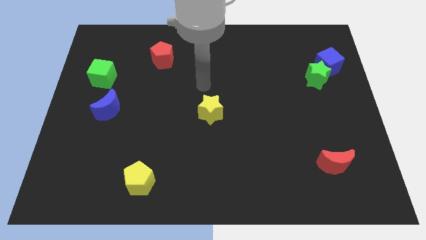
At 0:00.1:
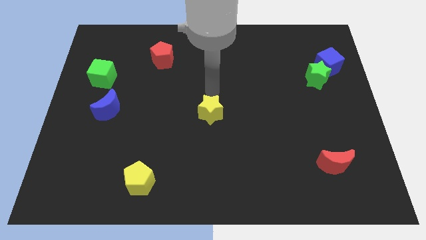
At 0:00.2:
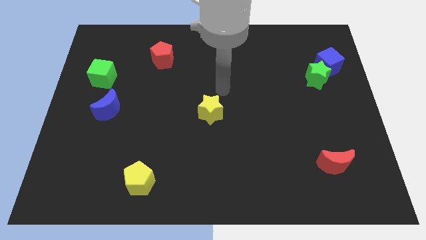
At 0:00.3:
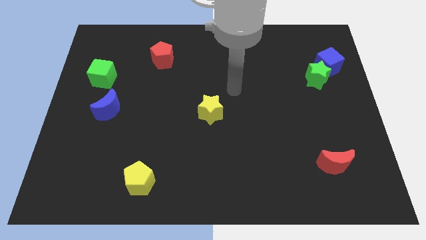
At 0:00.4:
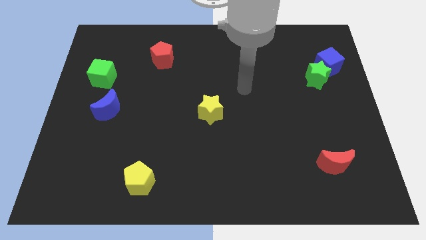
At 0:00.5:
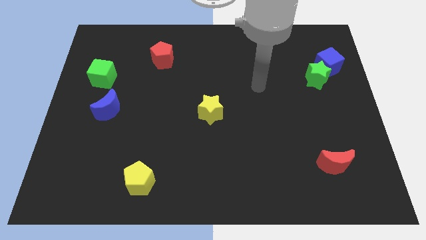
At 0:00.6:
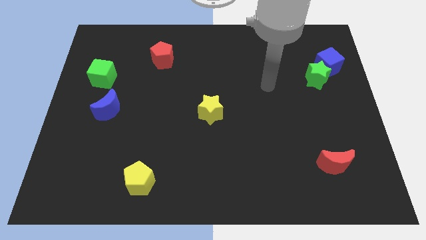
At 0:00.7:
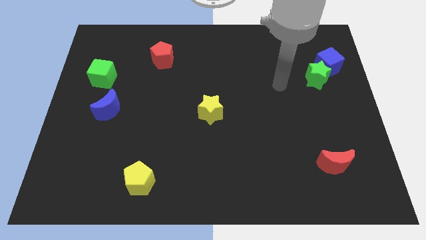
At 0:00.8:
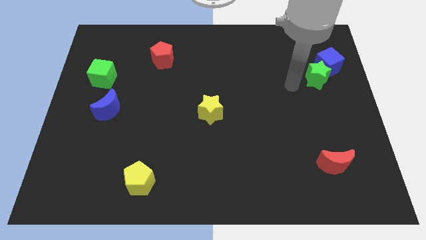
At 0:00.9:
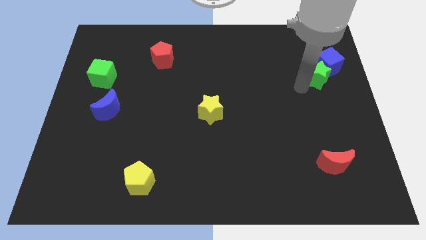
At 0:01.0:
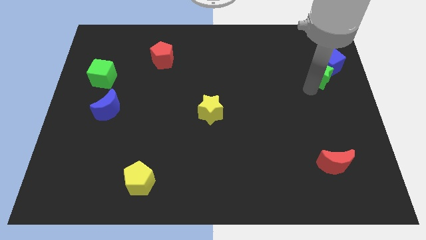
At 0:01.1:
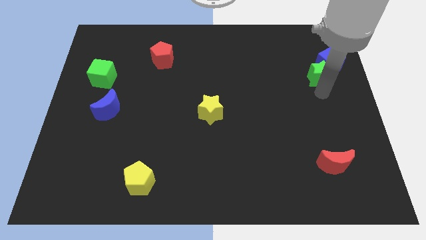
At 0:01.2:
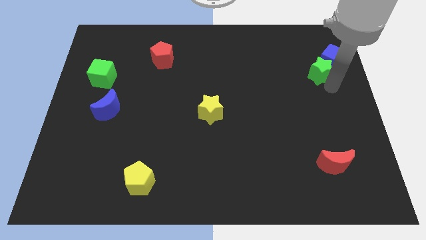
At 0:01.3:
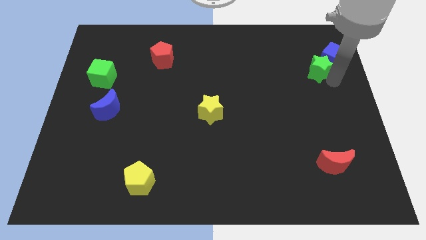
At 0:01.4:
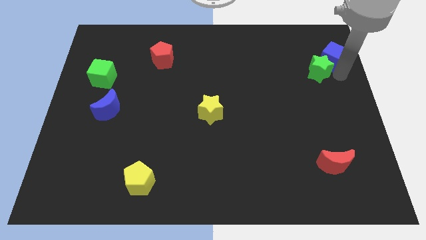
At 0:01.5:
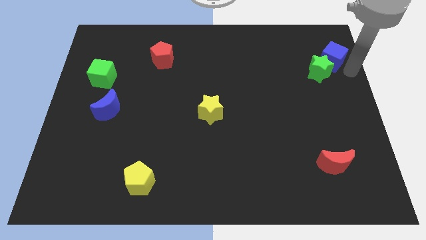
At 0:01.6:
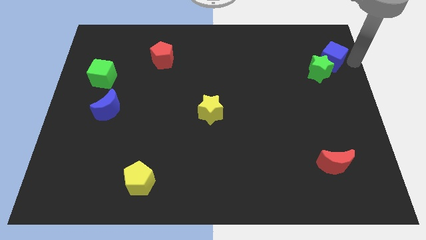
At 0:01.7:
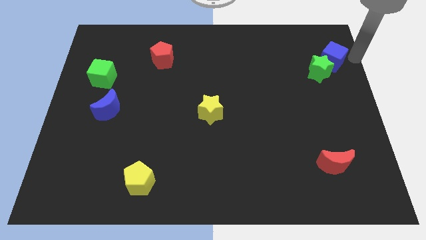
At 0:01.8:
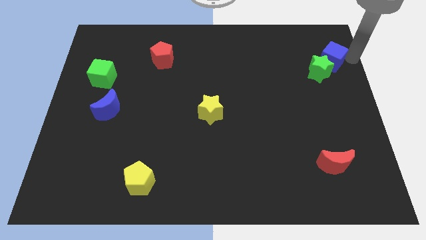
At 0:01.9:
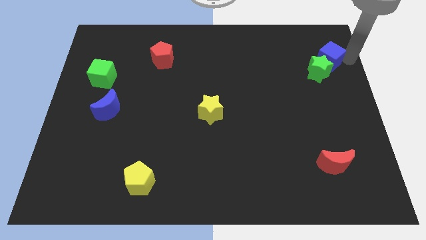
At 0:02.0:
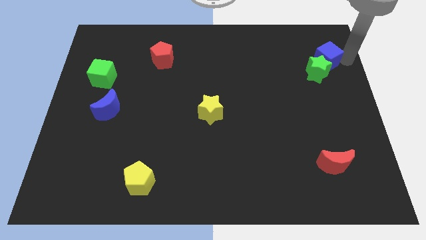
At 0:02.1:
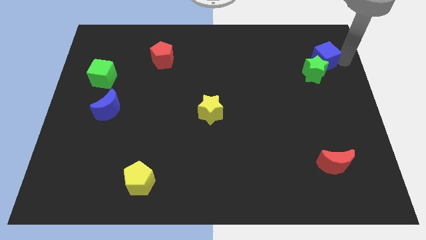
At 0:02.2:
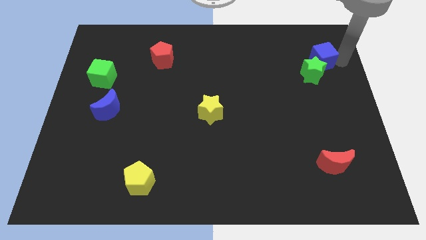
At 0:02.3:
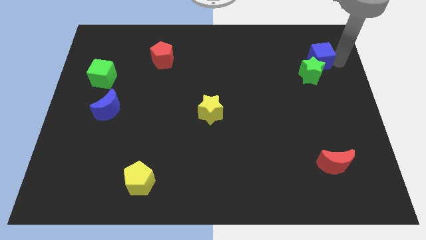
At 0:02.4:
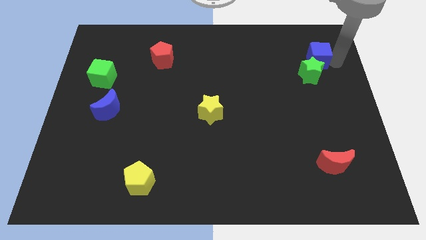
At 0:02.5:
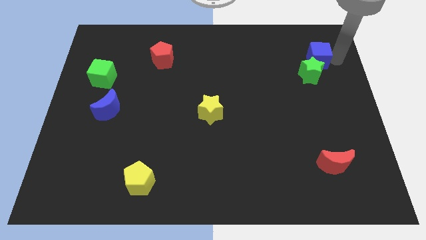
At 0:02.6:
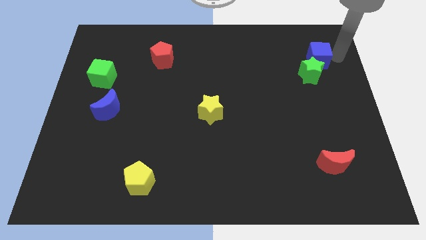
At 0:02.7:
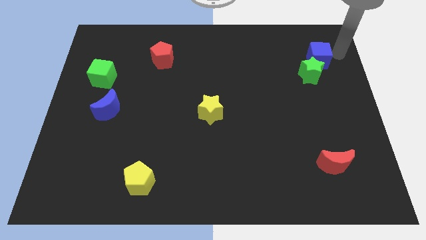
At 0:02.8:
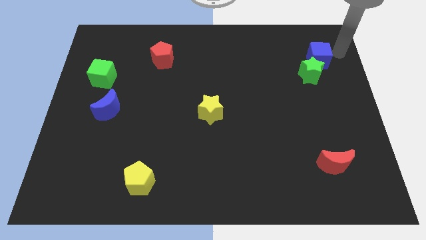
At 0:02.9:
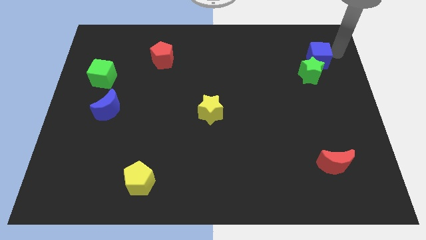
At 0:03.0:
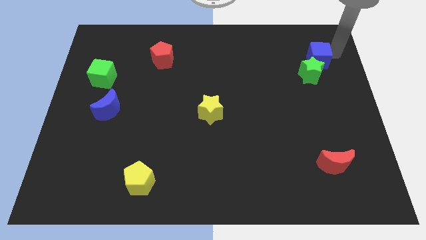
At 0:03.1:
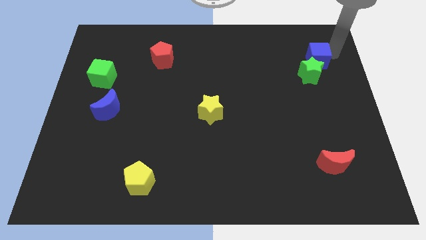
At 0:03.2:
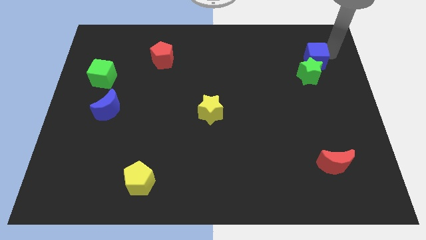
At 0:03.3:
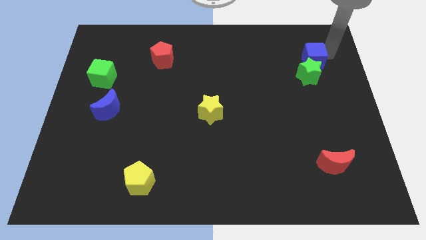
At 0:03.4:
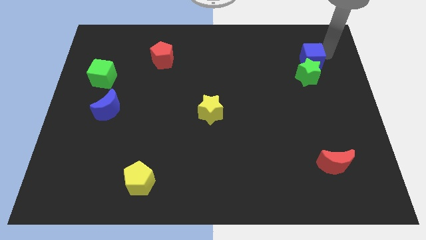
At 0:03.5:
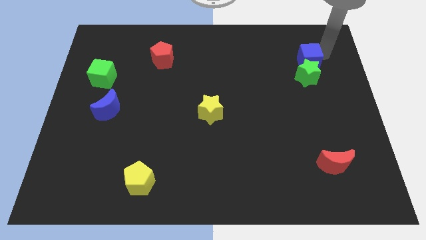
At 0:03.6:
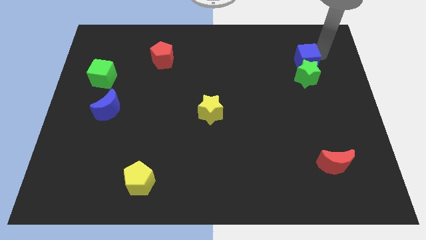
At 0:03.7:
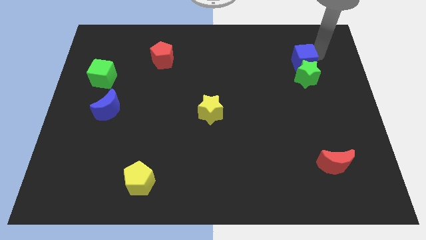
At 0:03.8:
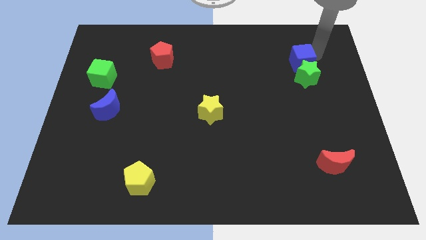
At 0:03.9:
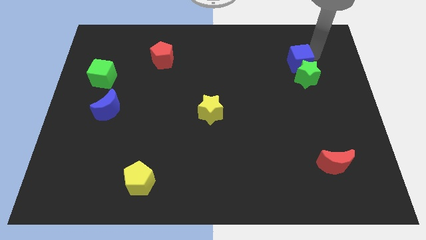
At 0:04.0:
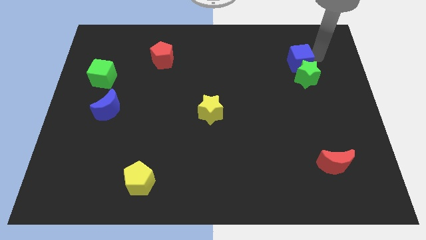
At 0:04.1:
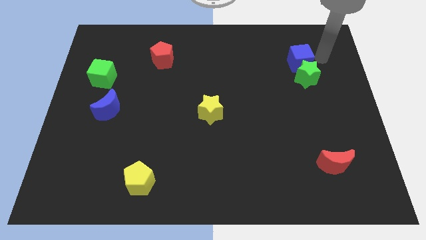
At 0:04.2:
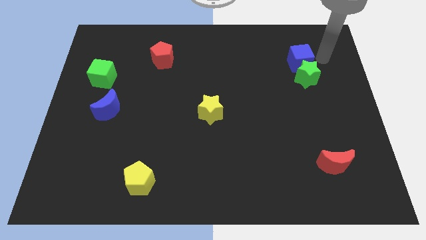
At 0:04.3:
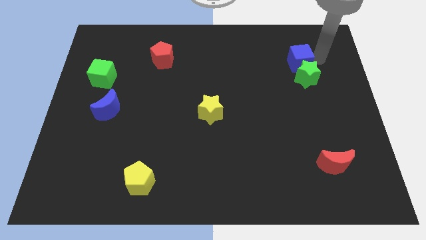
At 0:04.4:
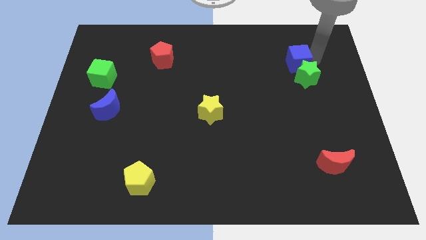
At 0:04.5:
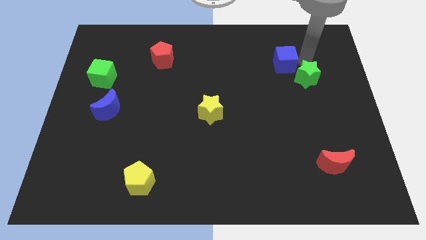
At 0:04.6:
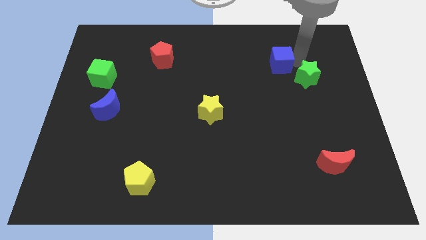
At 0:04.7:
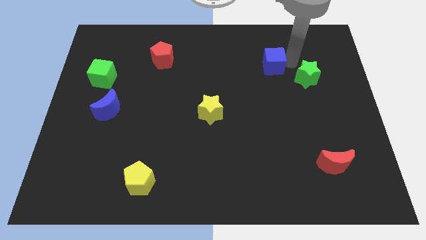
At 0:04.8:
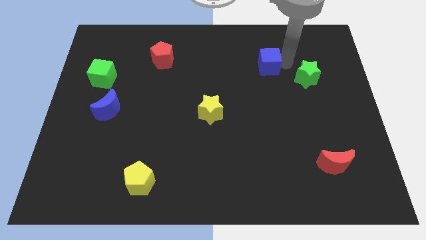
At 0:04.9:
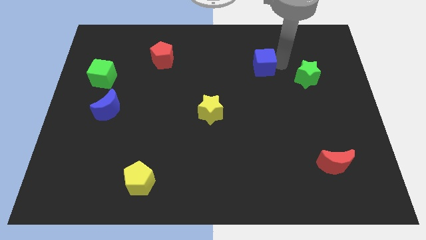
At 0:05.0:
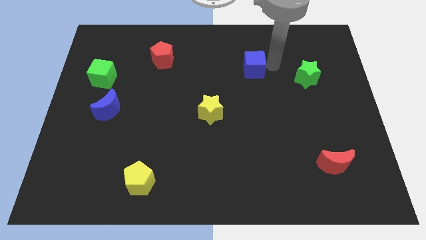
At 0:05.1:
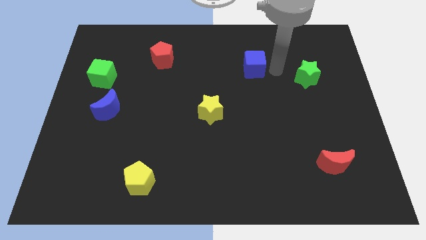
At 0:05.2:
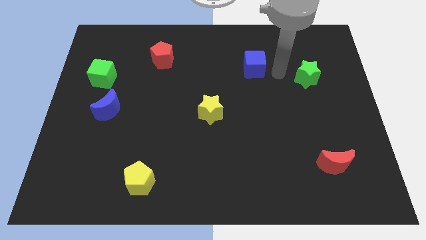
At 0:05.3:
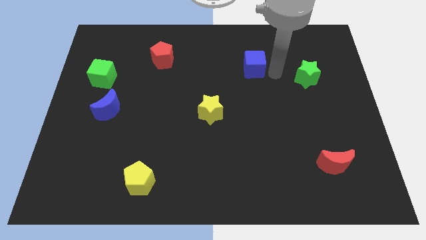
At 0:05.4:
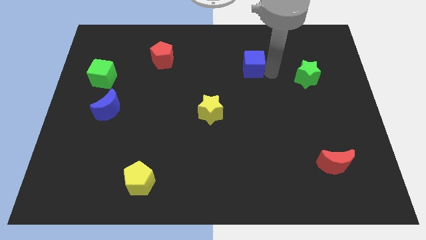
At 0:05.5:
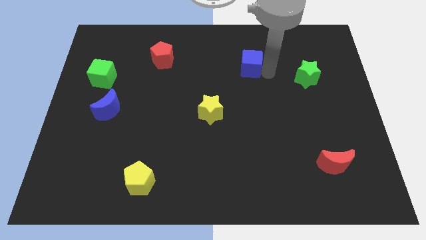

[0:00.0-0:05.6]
slide the blue cube left

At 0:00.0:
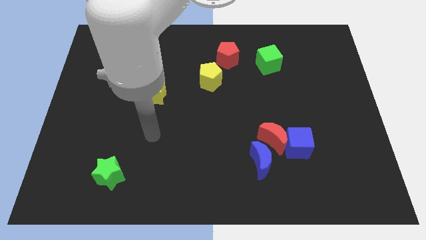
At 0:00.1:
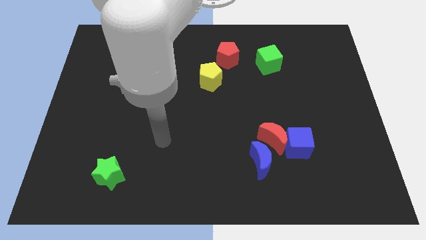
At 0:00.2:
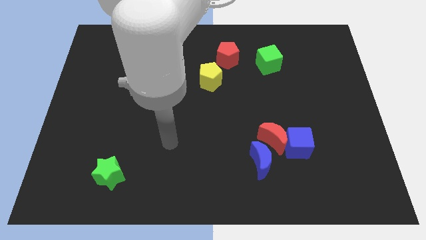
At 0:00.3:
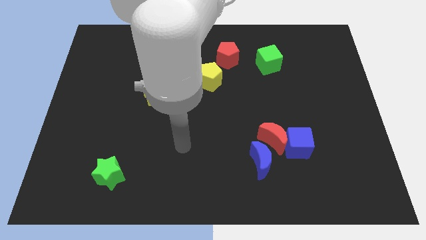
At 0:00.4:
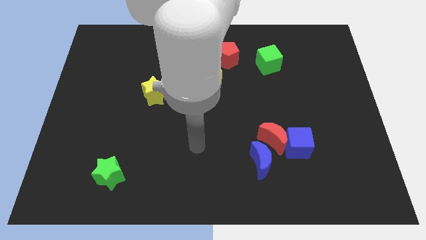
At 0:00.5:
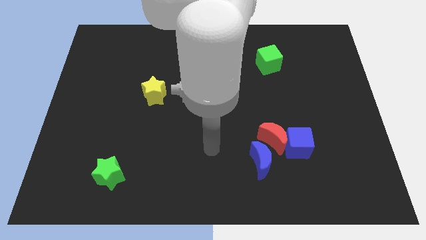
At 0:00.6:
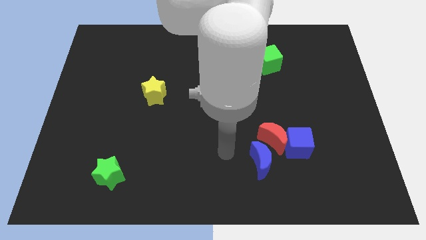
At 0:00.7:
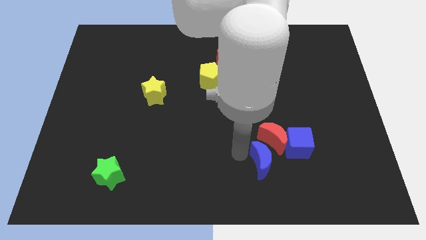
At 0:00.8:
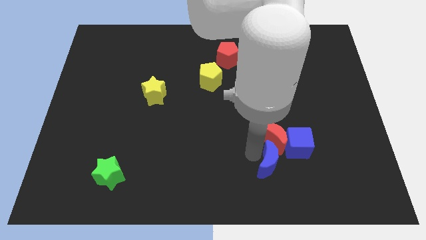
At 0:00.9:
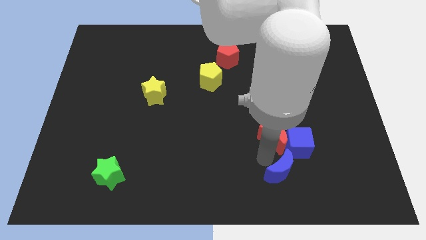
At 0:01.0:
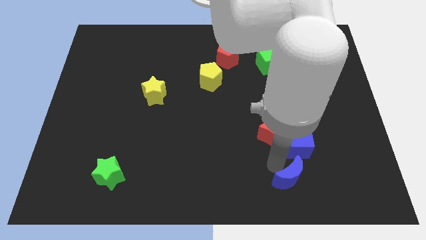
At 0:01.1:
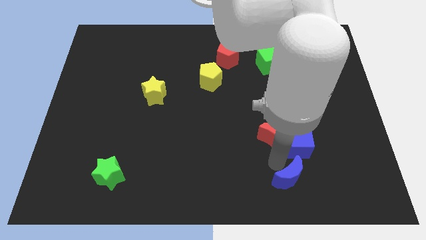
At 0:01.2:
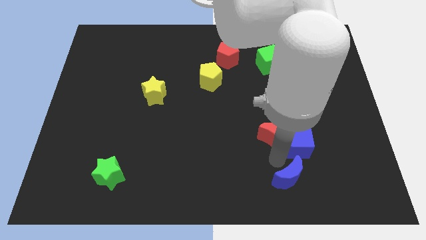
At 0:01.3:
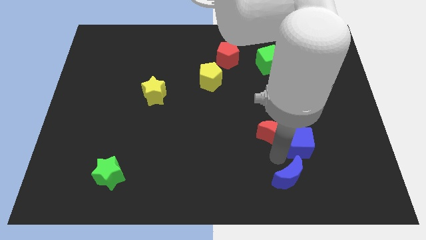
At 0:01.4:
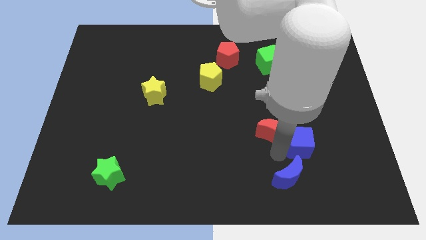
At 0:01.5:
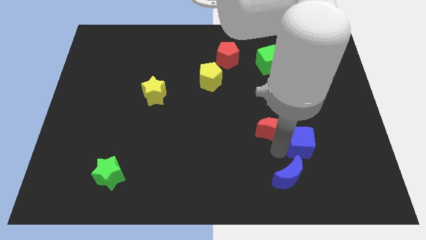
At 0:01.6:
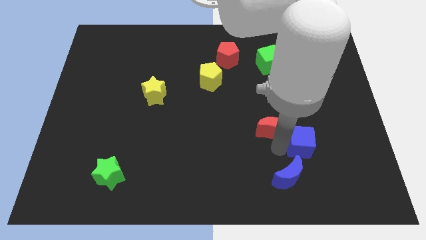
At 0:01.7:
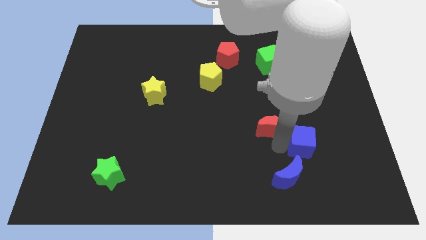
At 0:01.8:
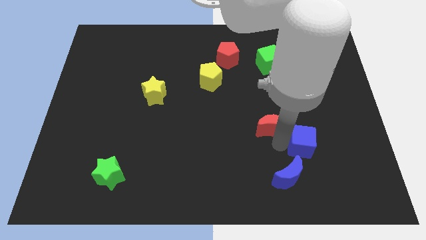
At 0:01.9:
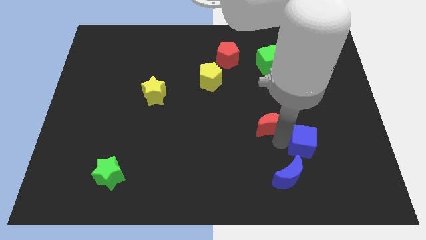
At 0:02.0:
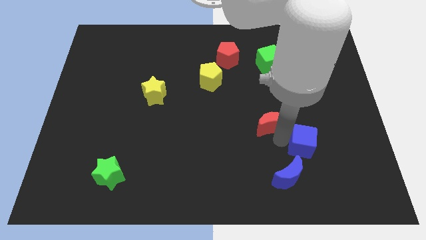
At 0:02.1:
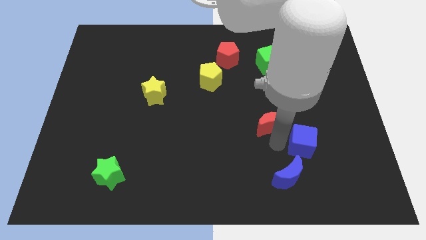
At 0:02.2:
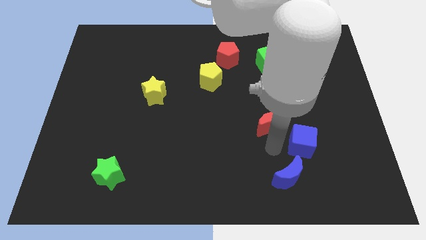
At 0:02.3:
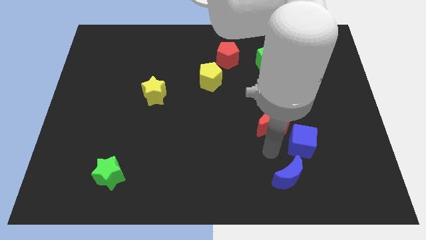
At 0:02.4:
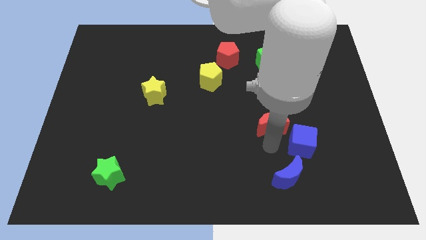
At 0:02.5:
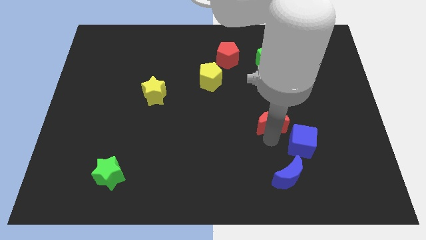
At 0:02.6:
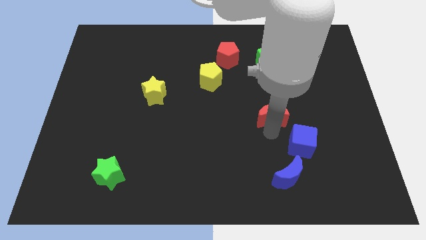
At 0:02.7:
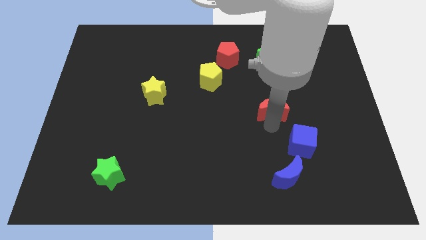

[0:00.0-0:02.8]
push the red moon up a little
